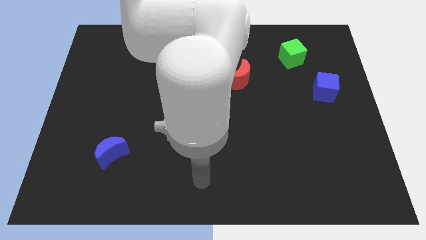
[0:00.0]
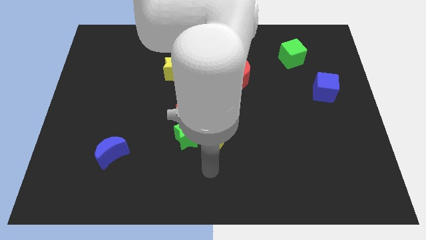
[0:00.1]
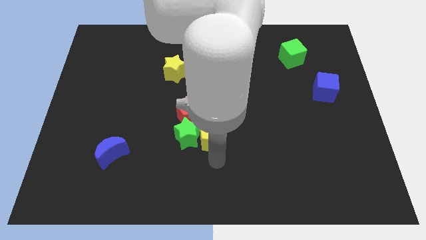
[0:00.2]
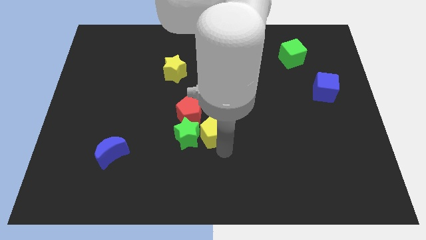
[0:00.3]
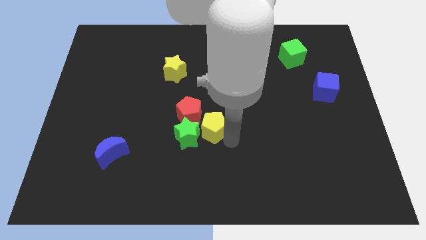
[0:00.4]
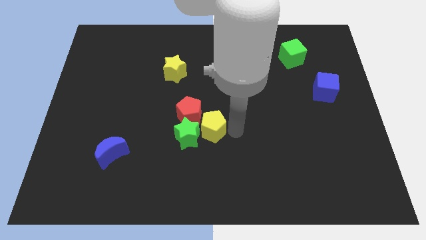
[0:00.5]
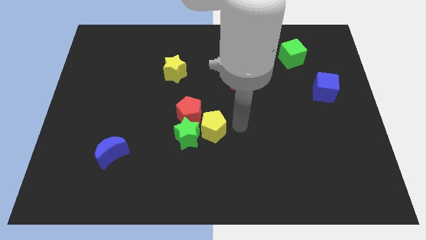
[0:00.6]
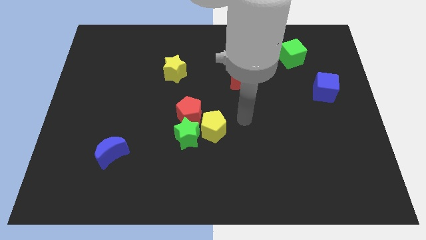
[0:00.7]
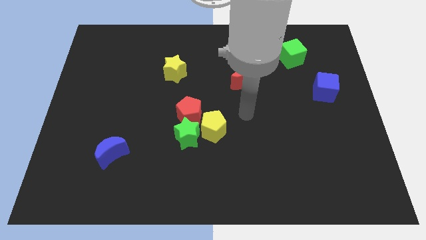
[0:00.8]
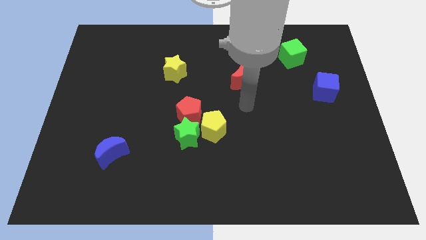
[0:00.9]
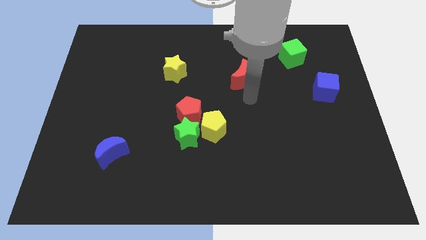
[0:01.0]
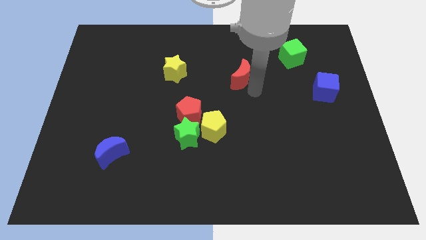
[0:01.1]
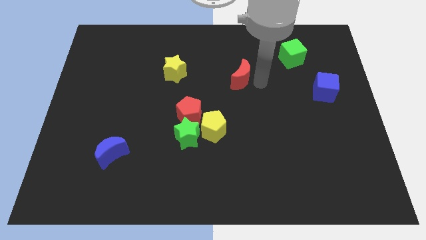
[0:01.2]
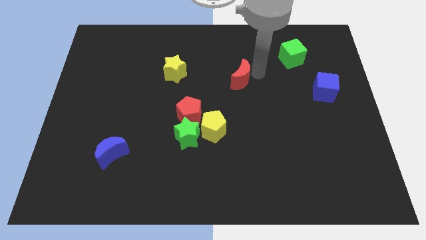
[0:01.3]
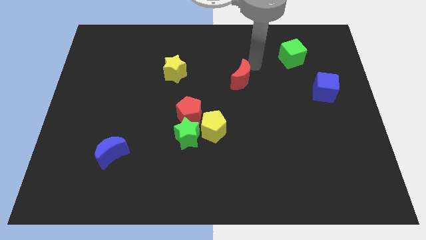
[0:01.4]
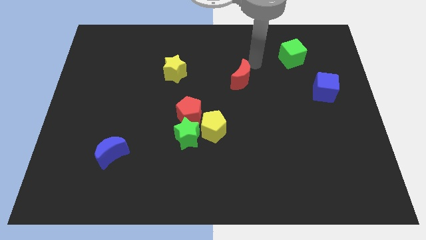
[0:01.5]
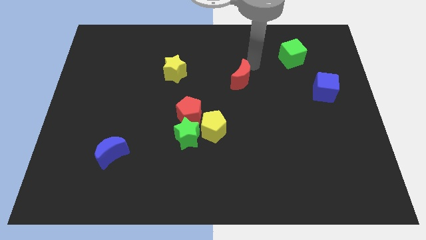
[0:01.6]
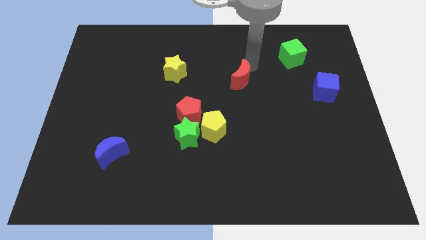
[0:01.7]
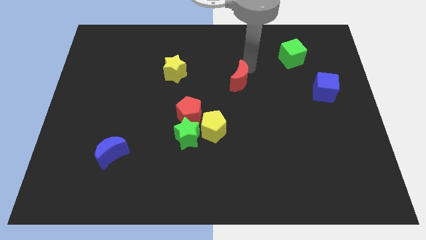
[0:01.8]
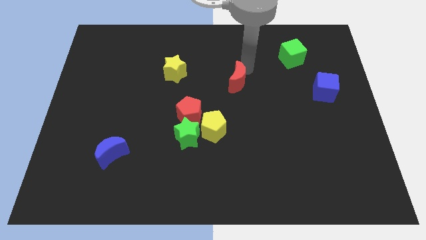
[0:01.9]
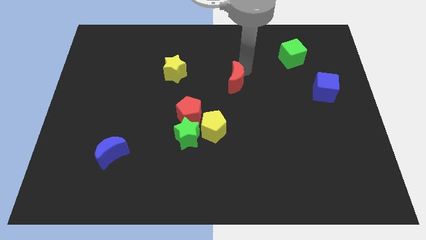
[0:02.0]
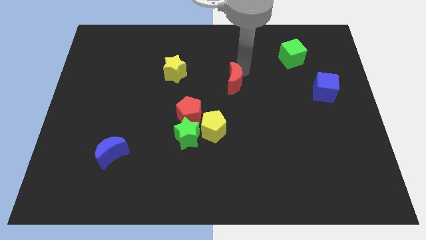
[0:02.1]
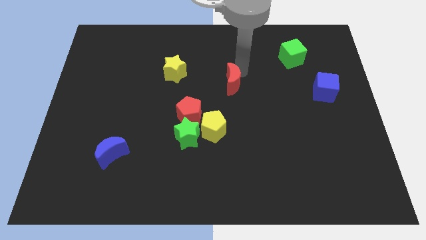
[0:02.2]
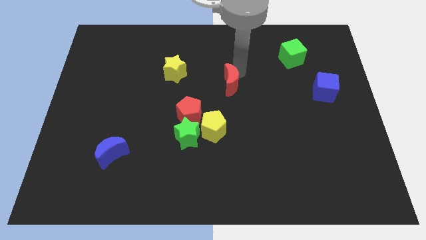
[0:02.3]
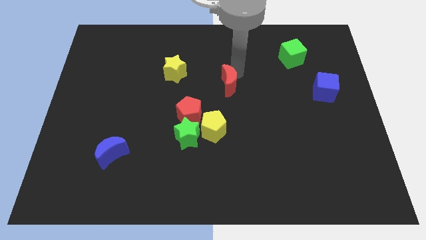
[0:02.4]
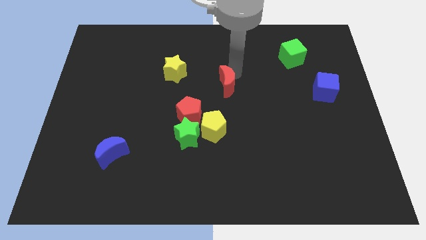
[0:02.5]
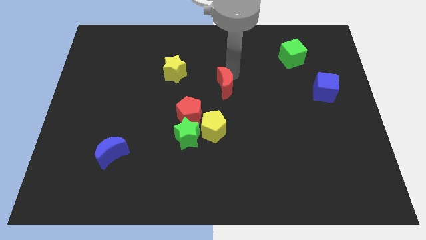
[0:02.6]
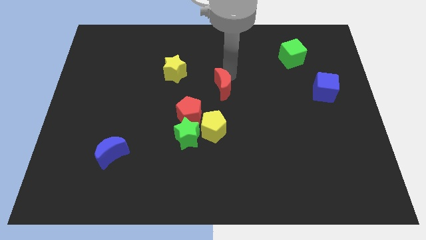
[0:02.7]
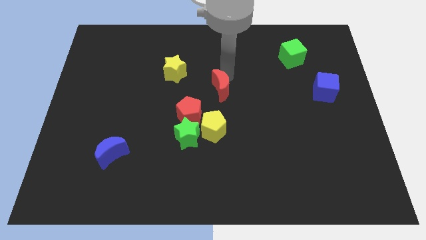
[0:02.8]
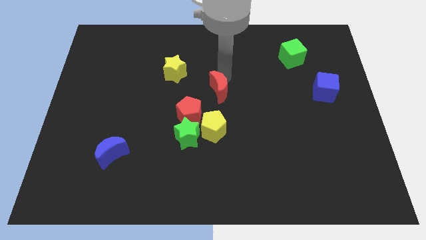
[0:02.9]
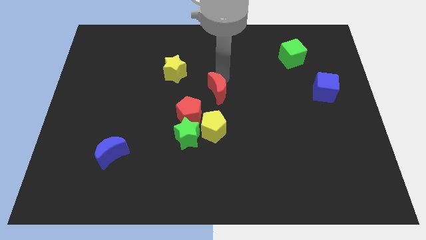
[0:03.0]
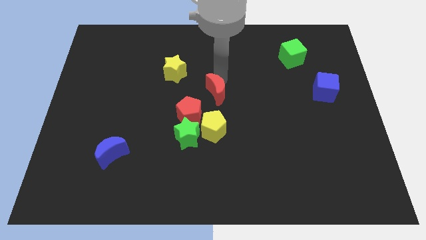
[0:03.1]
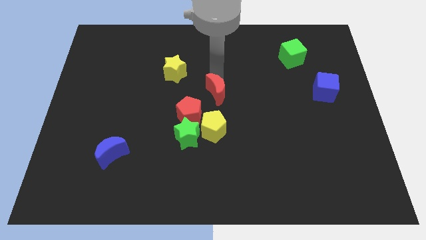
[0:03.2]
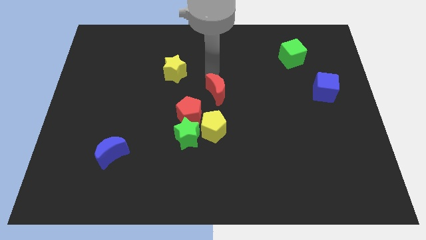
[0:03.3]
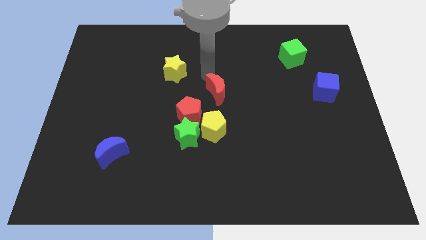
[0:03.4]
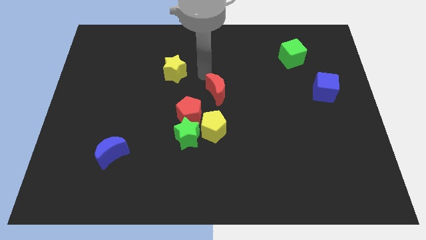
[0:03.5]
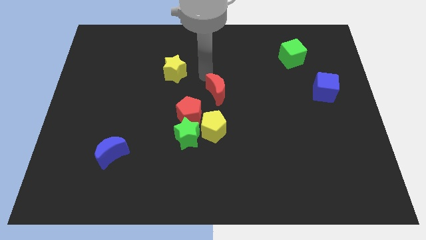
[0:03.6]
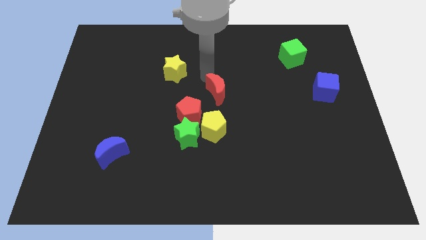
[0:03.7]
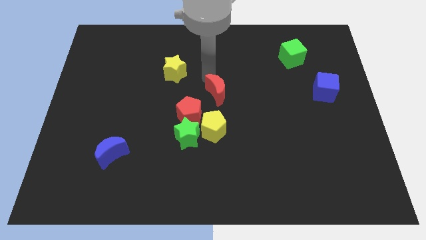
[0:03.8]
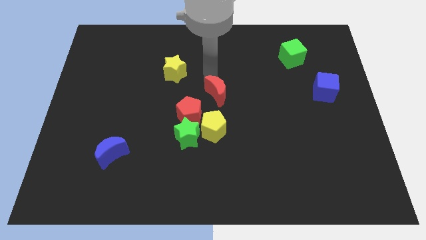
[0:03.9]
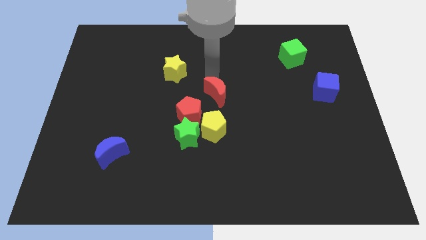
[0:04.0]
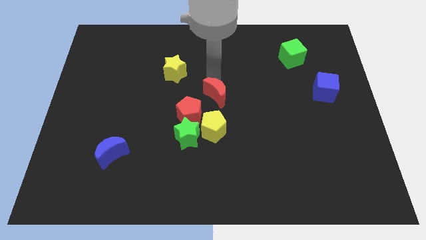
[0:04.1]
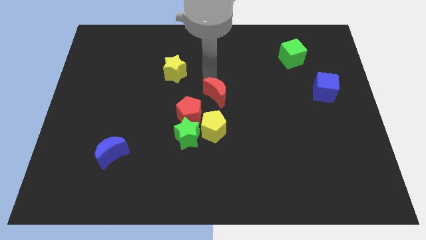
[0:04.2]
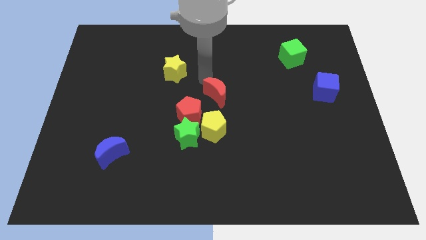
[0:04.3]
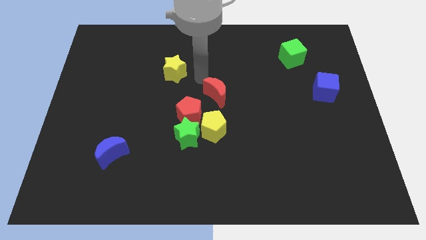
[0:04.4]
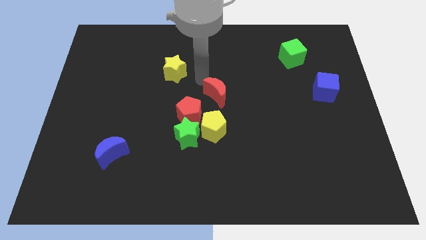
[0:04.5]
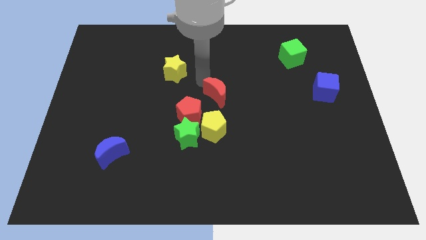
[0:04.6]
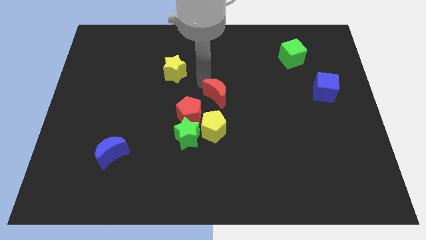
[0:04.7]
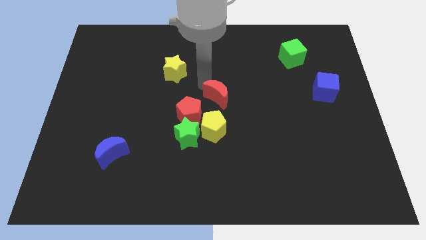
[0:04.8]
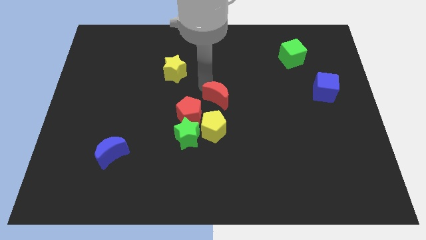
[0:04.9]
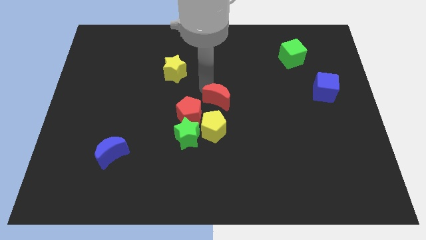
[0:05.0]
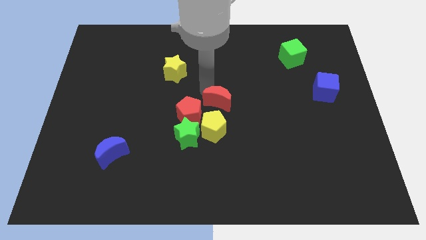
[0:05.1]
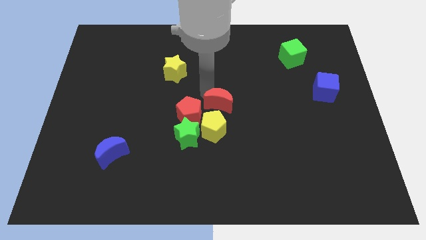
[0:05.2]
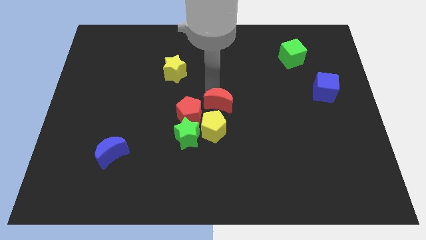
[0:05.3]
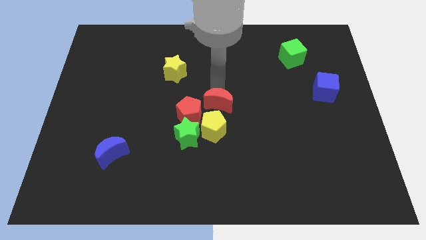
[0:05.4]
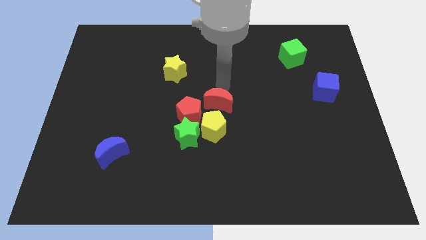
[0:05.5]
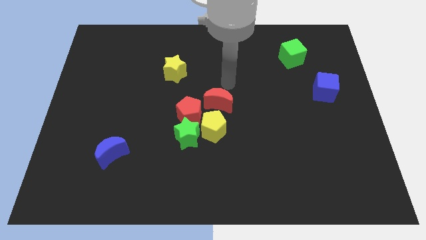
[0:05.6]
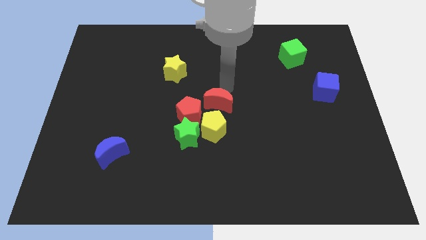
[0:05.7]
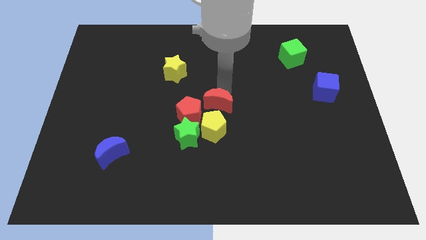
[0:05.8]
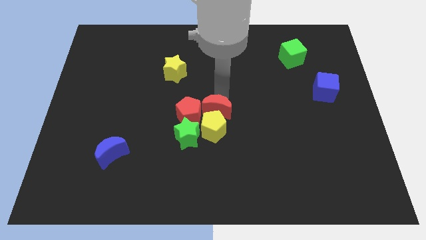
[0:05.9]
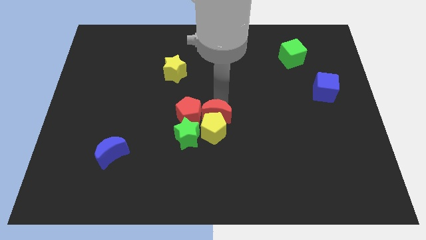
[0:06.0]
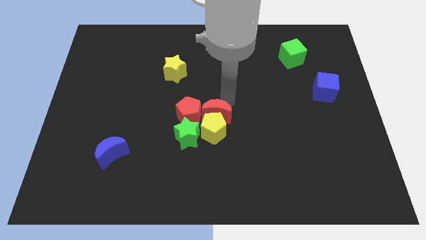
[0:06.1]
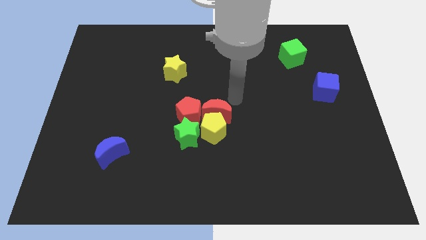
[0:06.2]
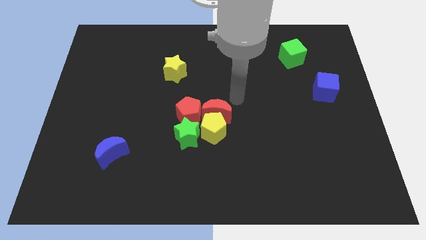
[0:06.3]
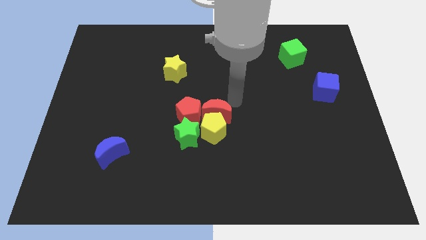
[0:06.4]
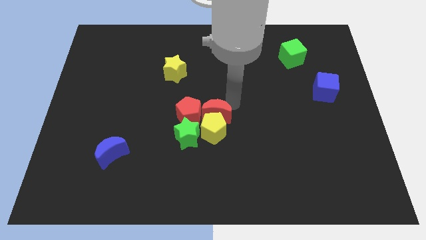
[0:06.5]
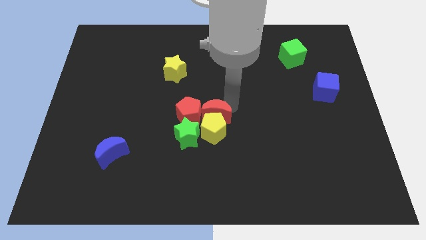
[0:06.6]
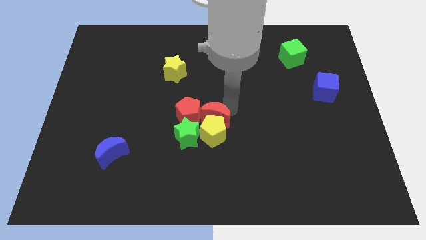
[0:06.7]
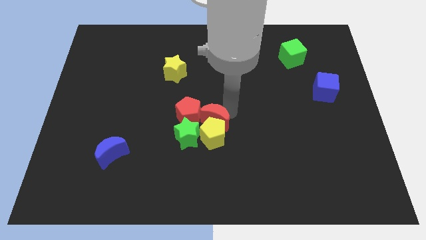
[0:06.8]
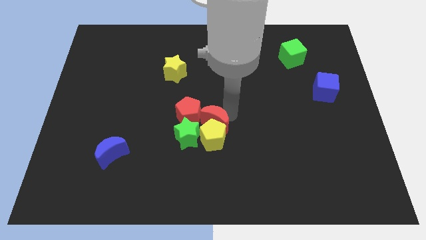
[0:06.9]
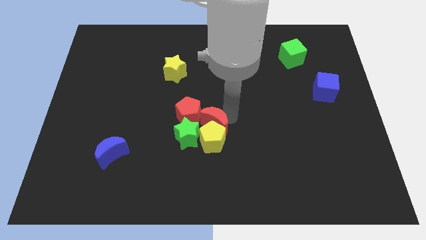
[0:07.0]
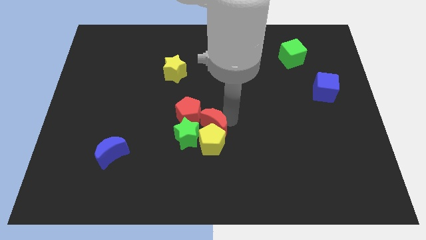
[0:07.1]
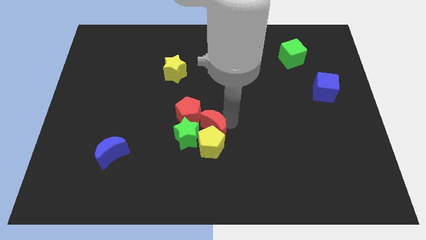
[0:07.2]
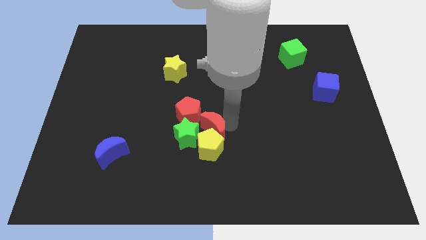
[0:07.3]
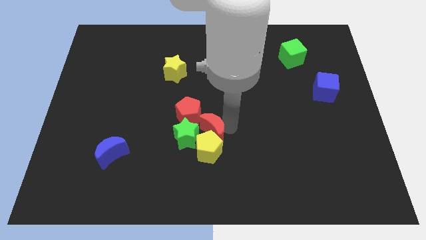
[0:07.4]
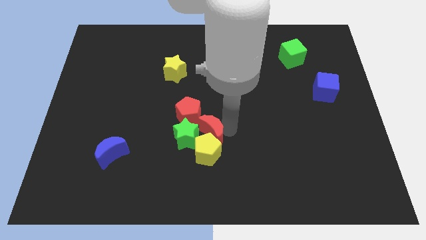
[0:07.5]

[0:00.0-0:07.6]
put the red moon close to the green star
